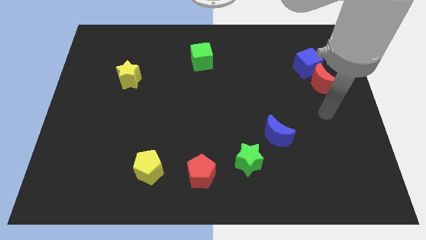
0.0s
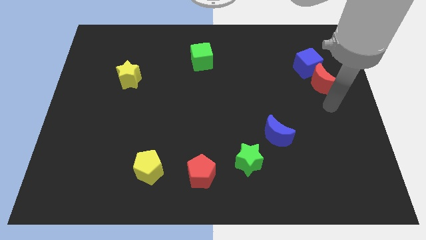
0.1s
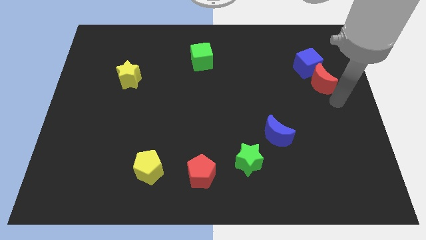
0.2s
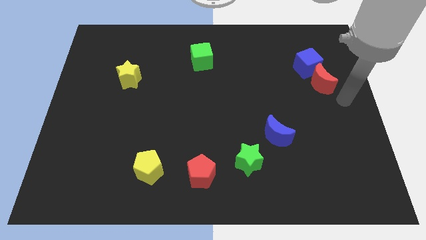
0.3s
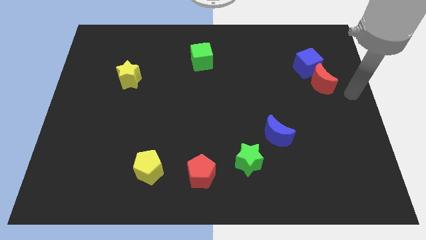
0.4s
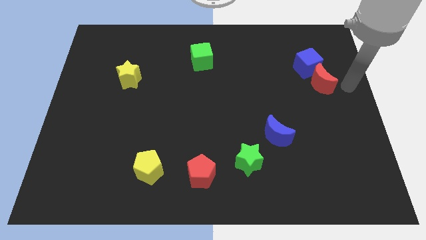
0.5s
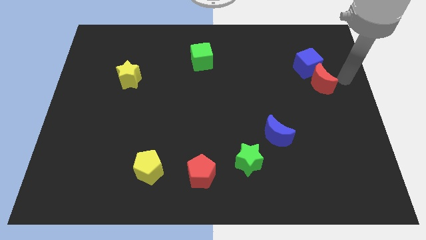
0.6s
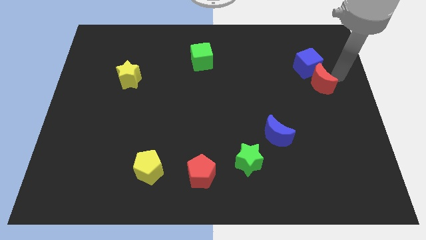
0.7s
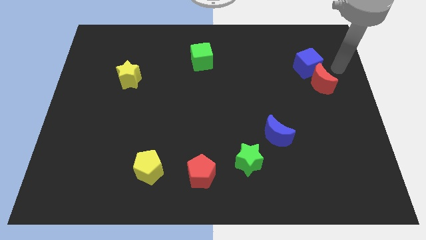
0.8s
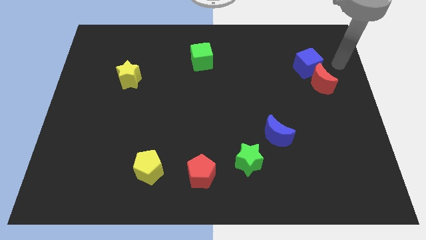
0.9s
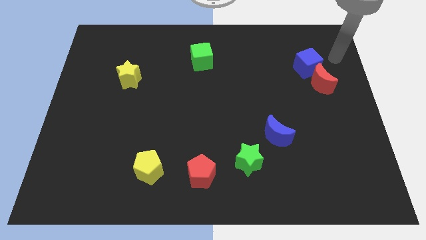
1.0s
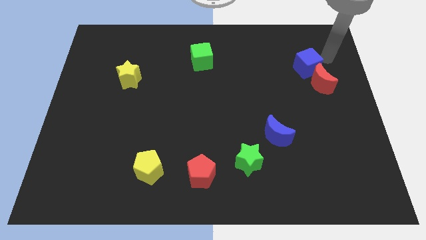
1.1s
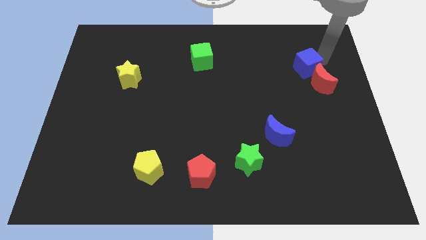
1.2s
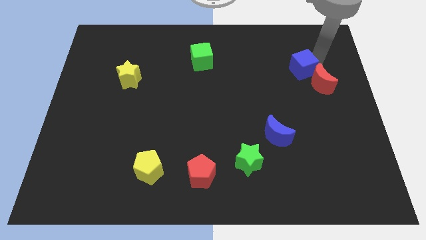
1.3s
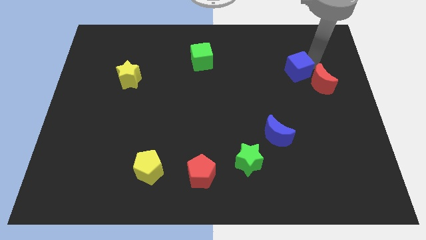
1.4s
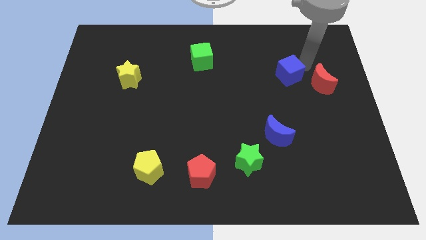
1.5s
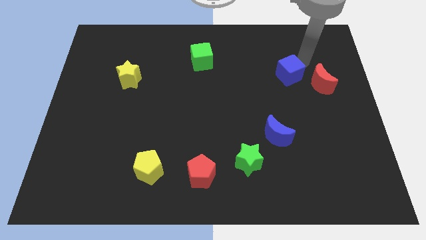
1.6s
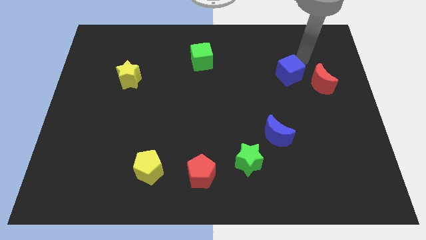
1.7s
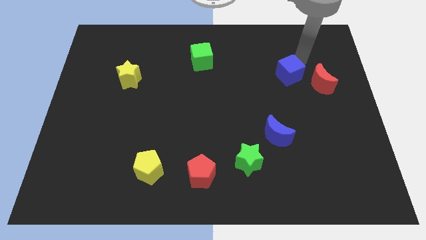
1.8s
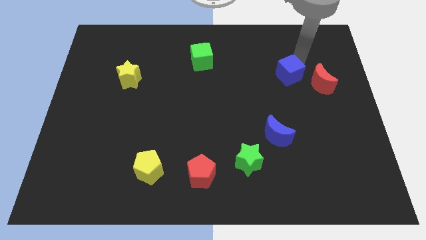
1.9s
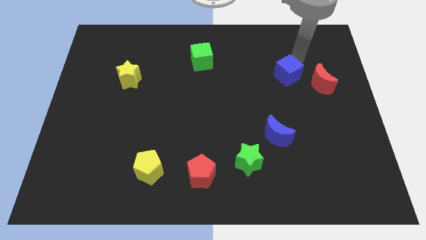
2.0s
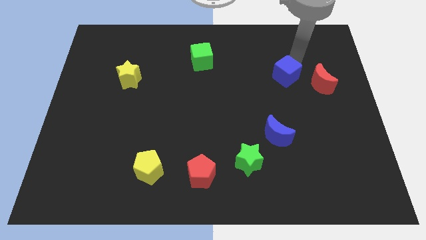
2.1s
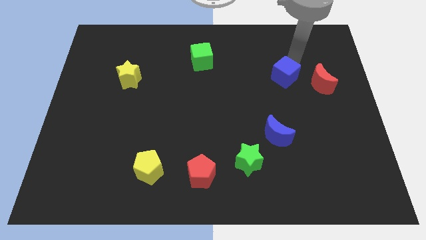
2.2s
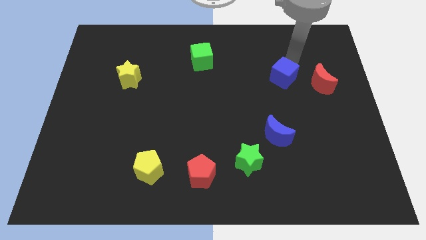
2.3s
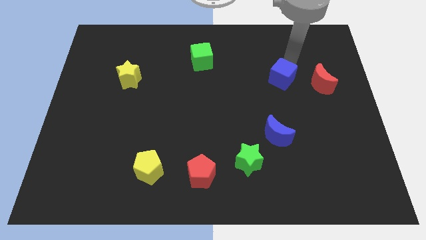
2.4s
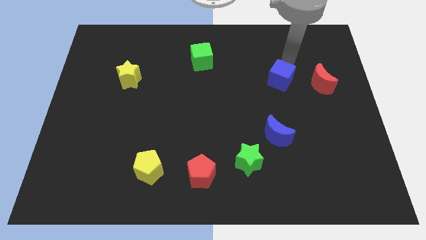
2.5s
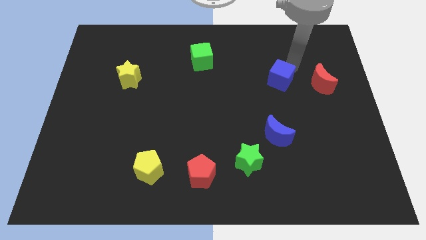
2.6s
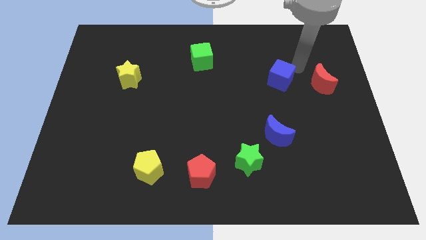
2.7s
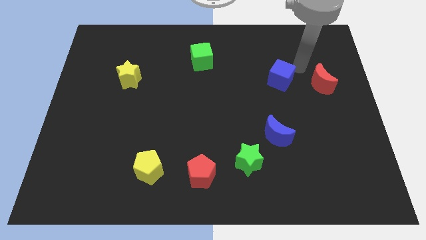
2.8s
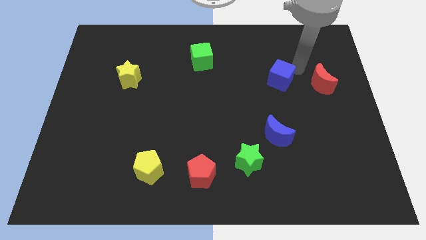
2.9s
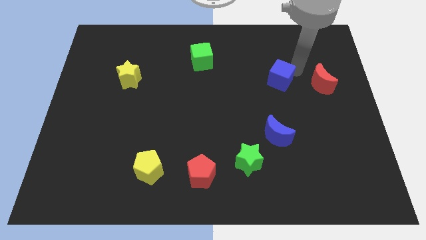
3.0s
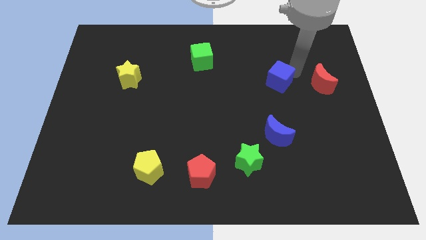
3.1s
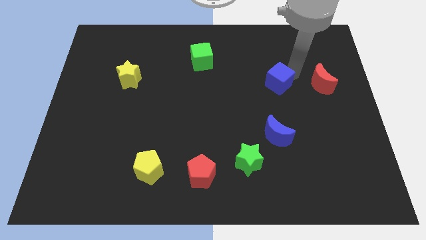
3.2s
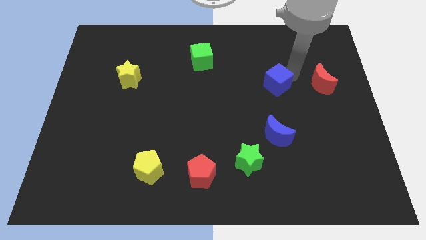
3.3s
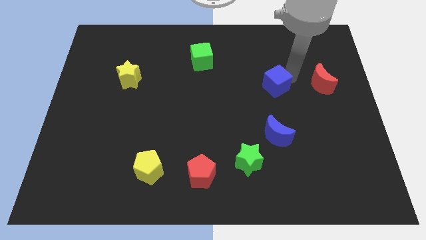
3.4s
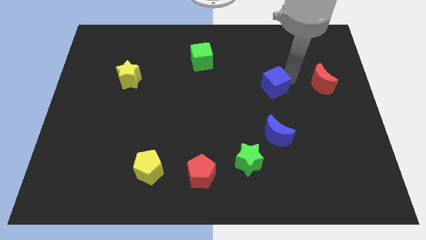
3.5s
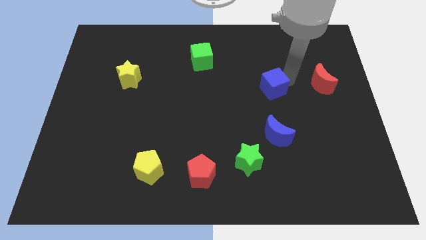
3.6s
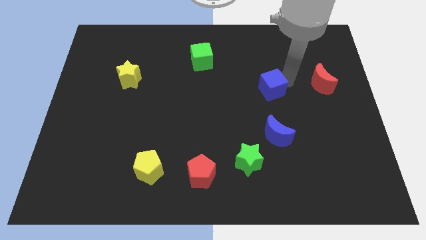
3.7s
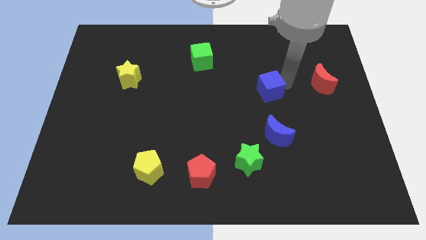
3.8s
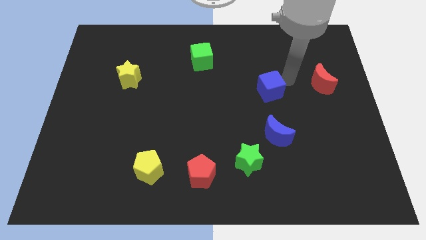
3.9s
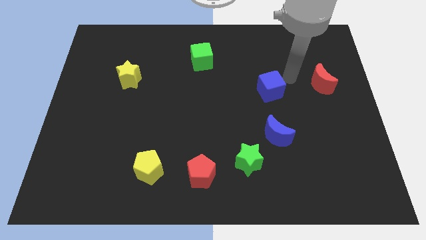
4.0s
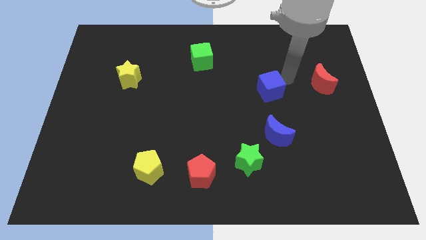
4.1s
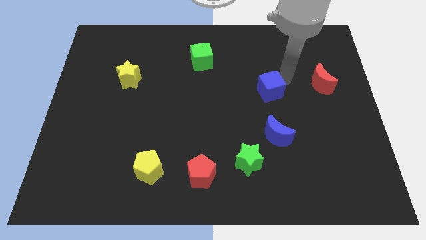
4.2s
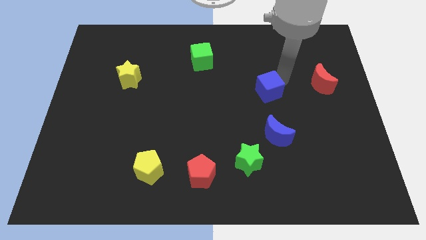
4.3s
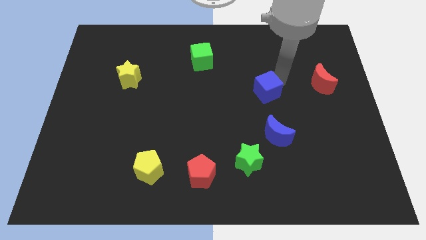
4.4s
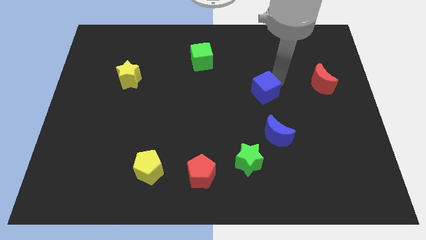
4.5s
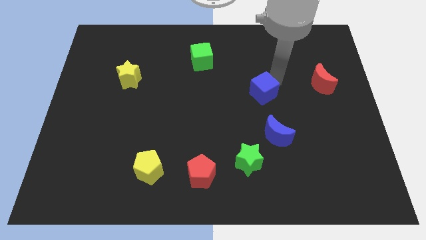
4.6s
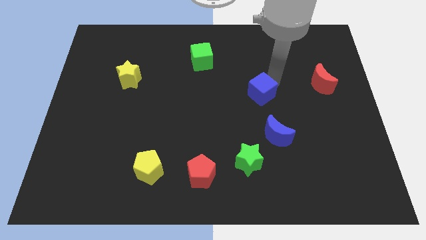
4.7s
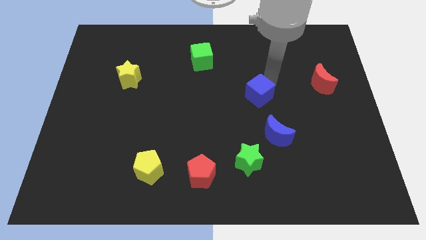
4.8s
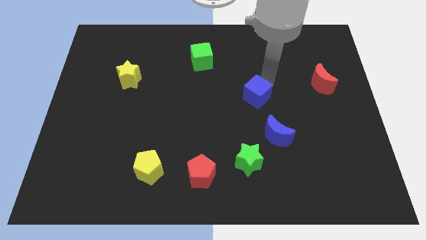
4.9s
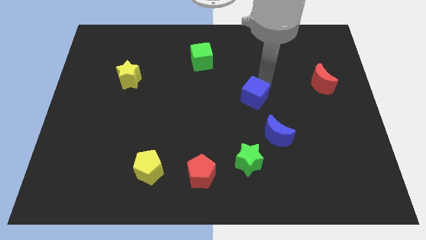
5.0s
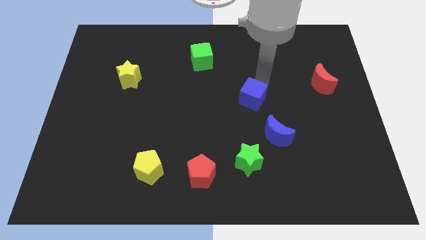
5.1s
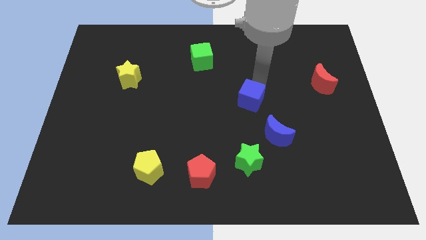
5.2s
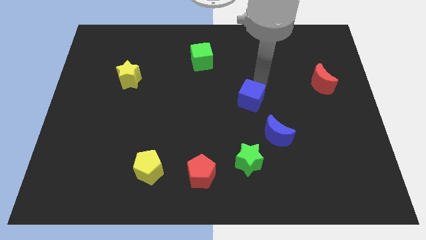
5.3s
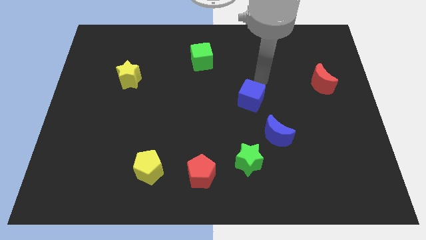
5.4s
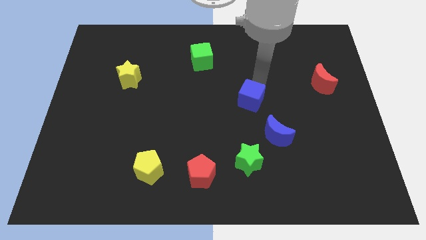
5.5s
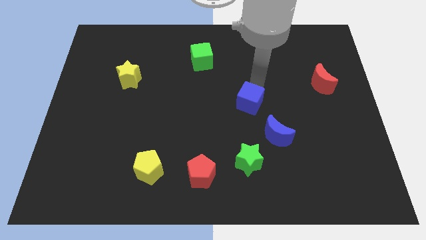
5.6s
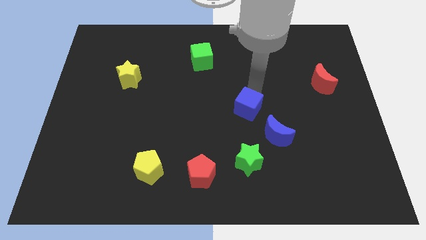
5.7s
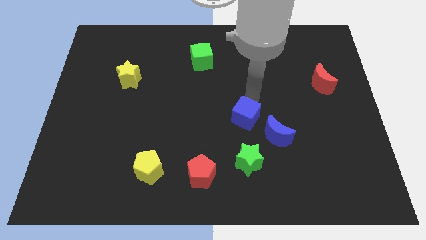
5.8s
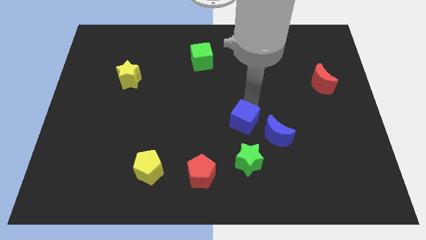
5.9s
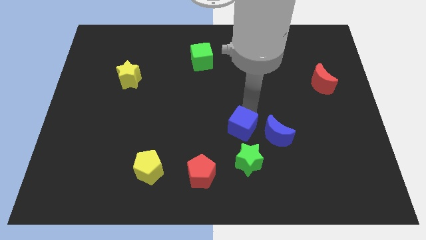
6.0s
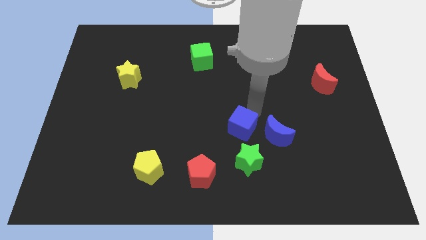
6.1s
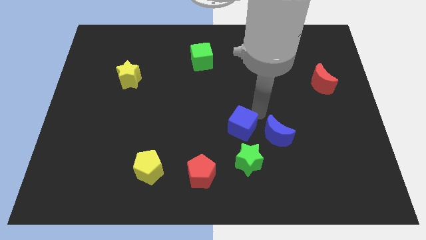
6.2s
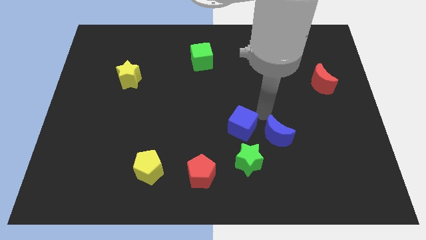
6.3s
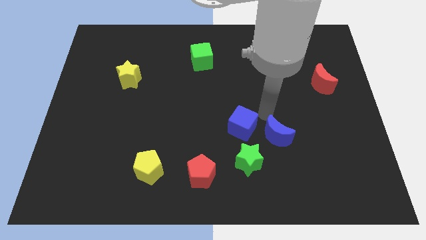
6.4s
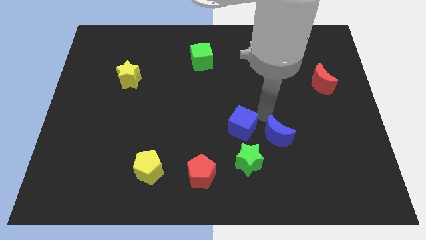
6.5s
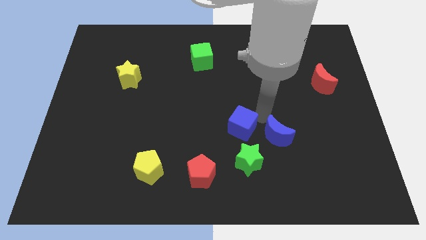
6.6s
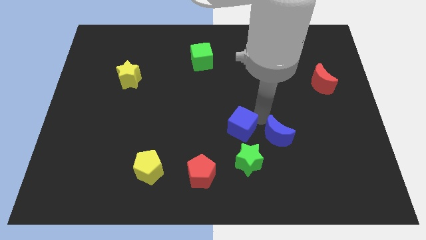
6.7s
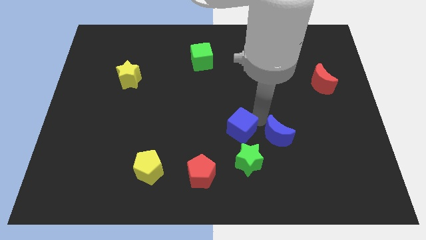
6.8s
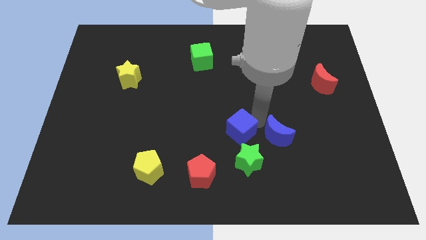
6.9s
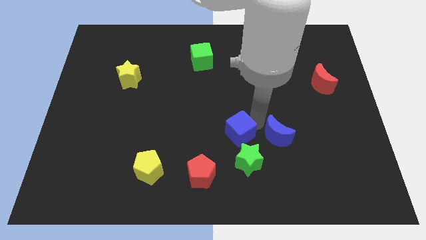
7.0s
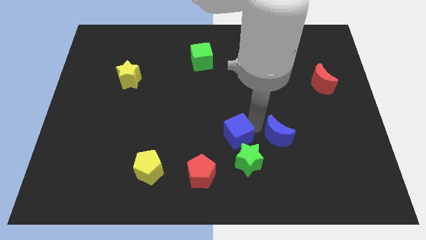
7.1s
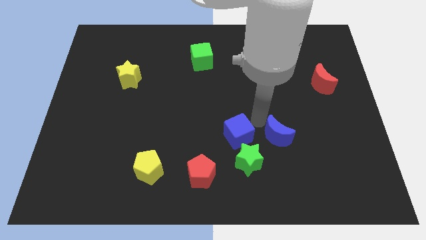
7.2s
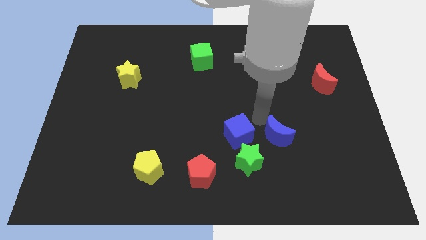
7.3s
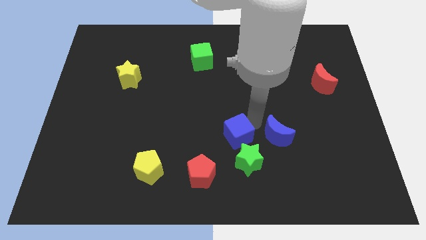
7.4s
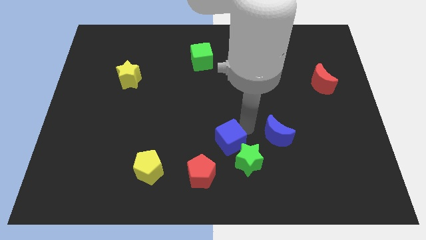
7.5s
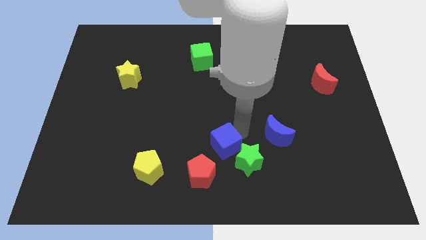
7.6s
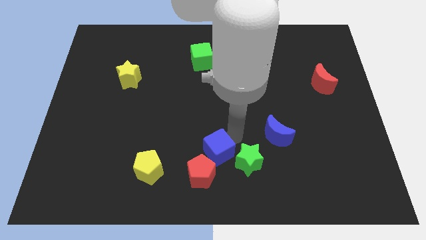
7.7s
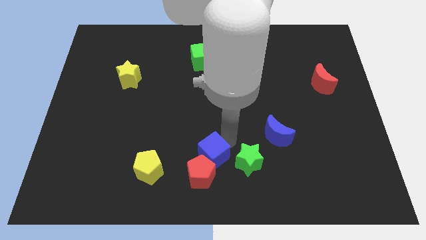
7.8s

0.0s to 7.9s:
slide the blue cube to the red pentagon
